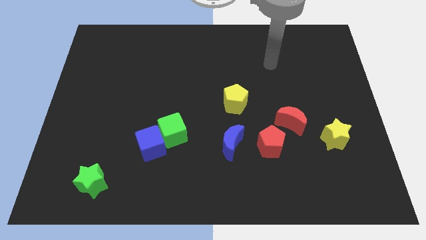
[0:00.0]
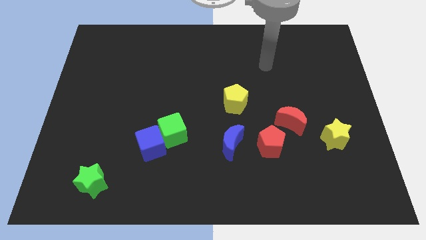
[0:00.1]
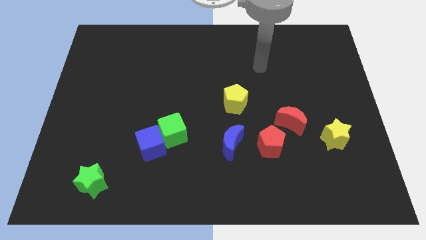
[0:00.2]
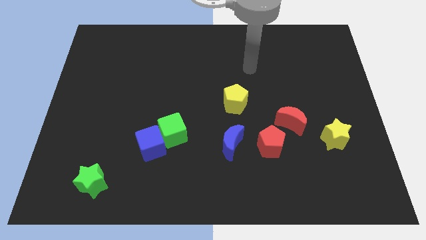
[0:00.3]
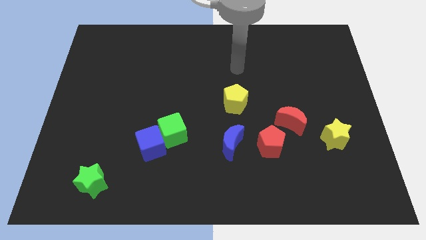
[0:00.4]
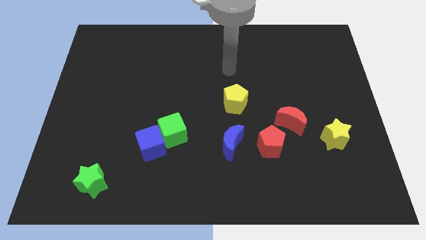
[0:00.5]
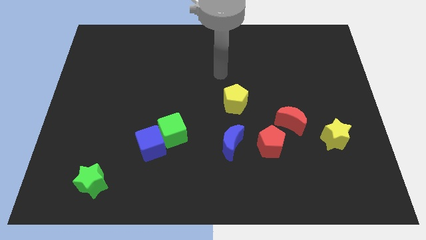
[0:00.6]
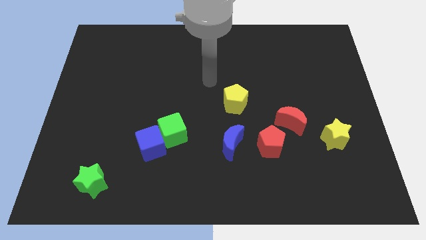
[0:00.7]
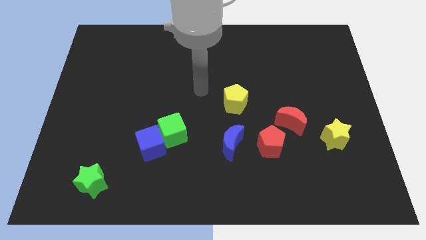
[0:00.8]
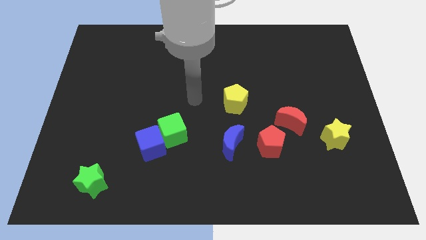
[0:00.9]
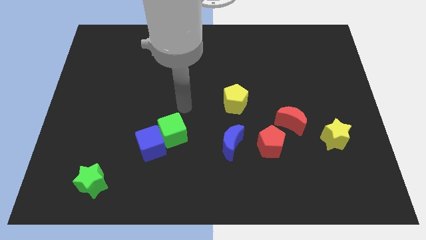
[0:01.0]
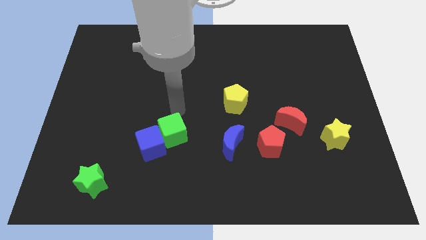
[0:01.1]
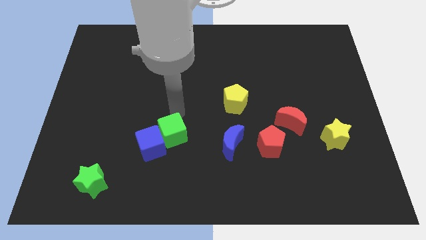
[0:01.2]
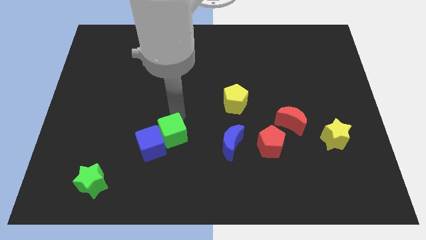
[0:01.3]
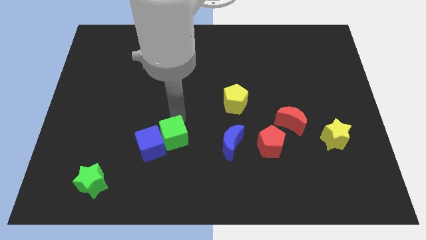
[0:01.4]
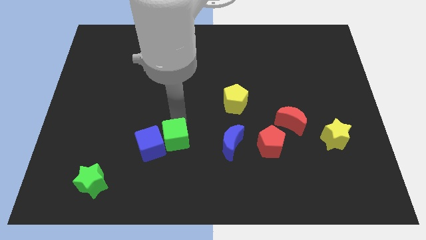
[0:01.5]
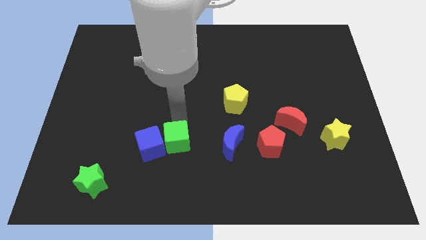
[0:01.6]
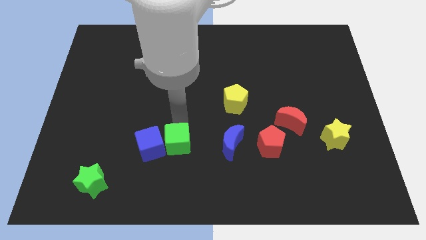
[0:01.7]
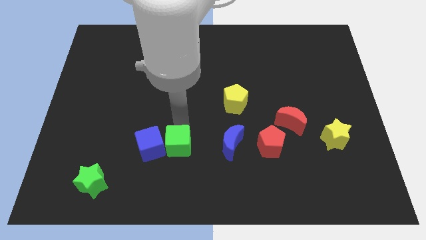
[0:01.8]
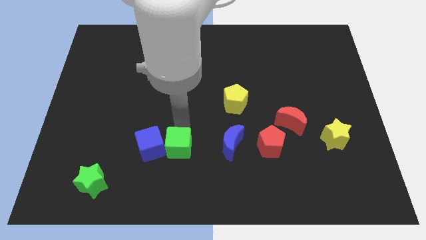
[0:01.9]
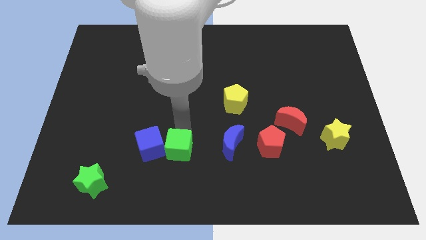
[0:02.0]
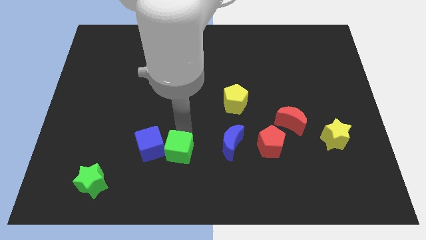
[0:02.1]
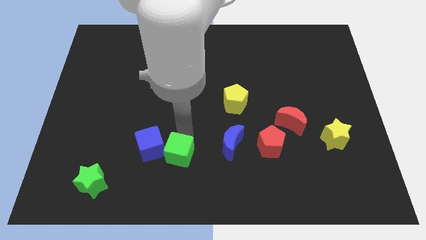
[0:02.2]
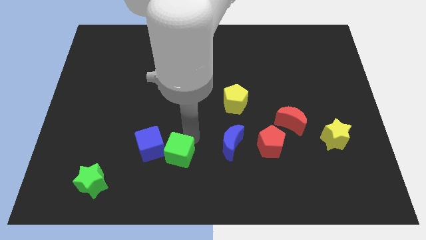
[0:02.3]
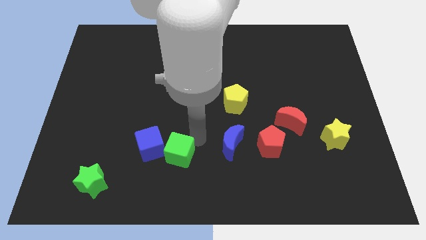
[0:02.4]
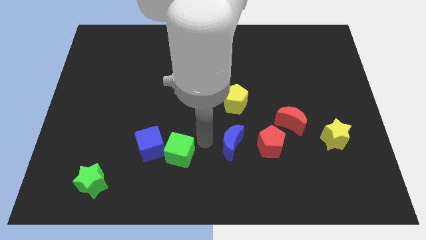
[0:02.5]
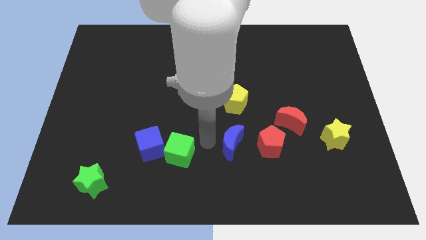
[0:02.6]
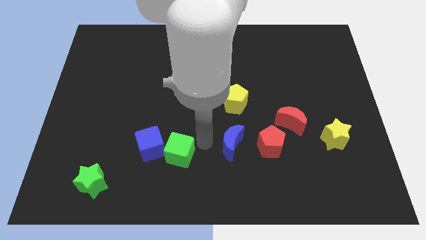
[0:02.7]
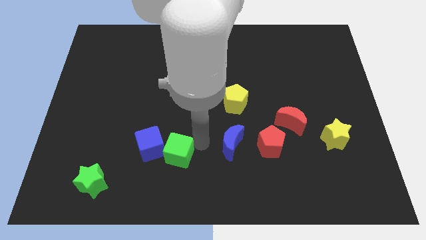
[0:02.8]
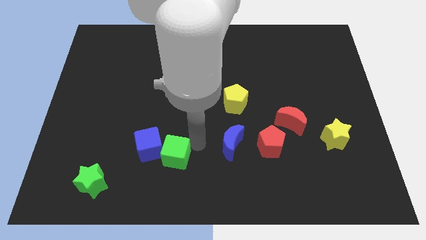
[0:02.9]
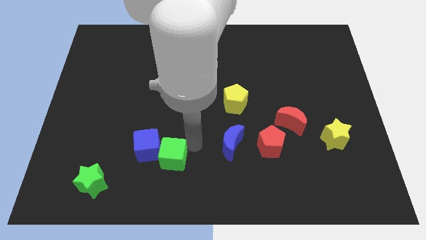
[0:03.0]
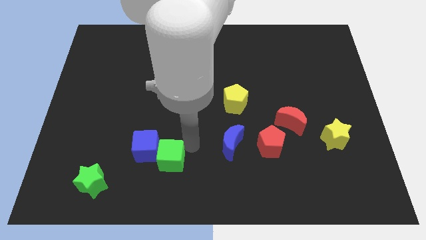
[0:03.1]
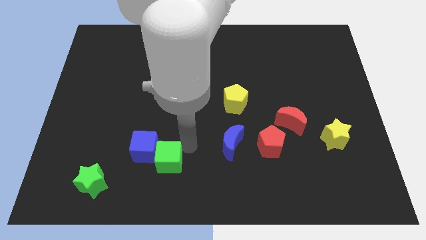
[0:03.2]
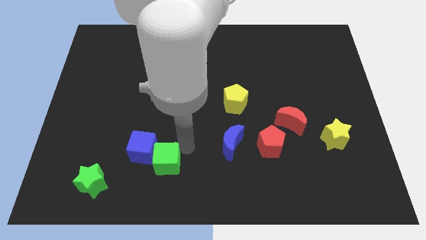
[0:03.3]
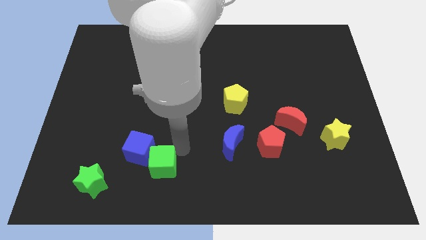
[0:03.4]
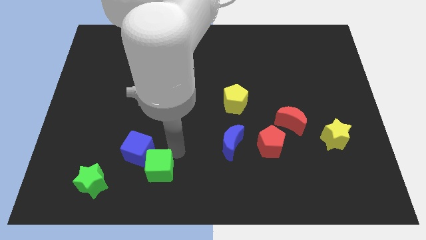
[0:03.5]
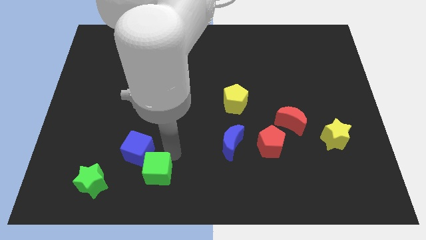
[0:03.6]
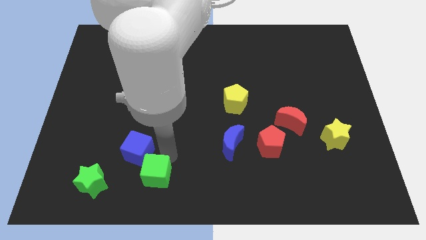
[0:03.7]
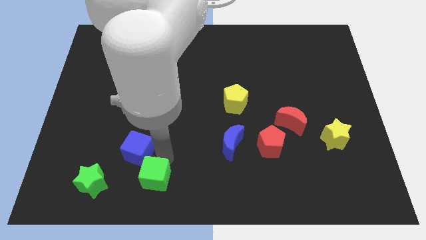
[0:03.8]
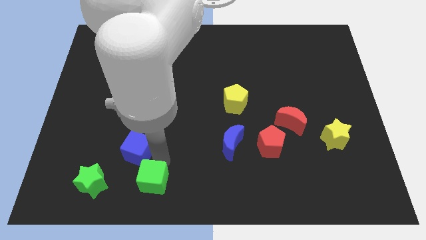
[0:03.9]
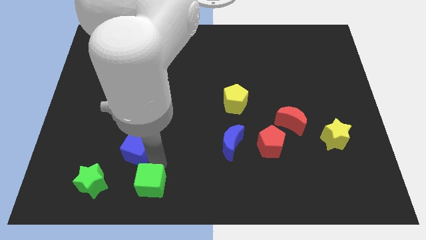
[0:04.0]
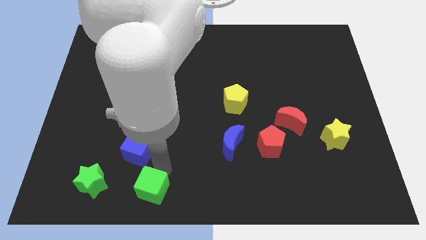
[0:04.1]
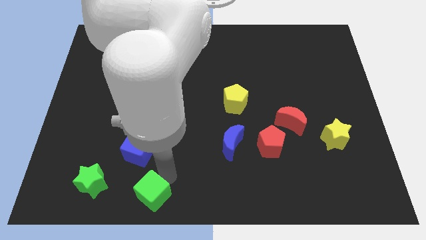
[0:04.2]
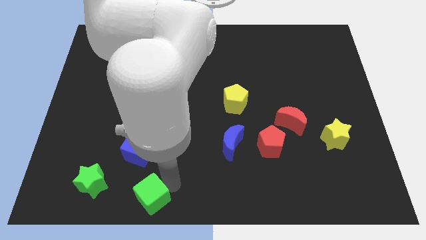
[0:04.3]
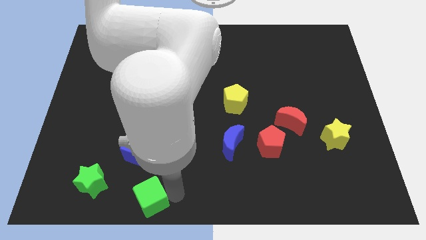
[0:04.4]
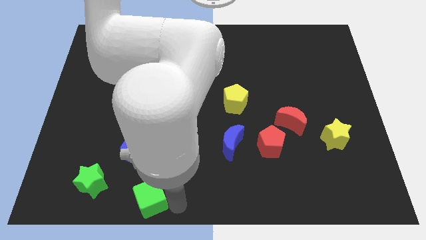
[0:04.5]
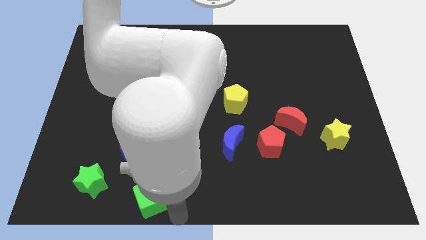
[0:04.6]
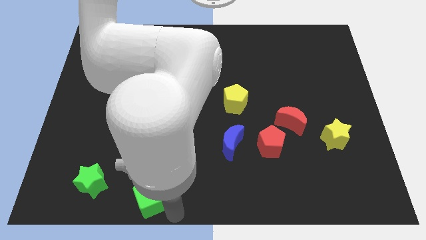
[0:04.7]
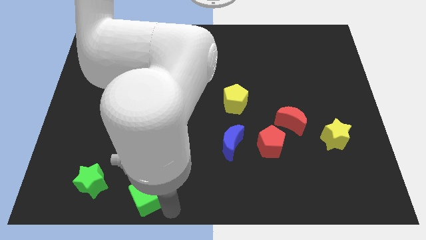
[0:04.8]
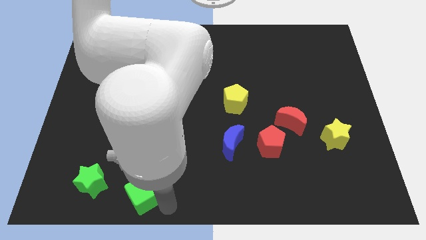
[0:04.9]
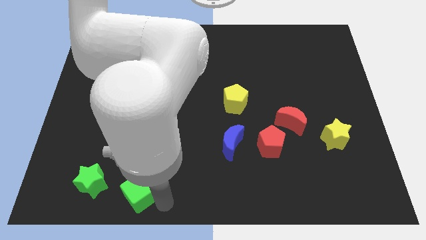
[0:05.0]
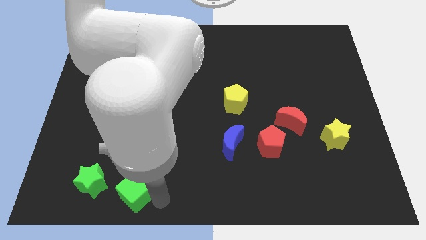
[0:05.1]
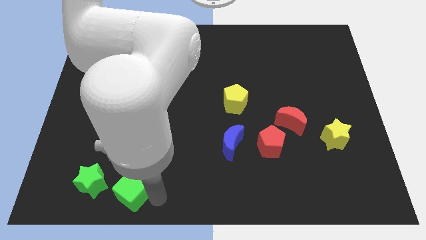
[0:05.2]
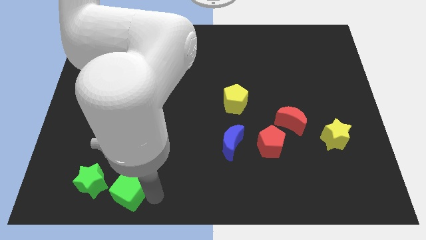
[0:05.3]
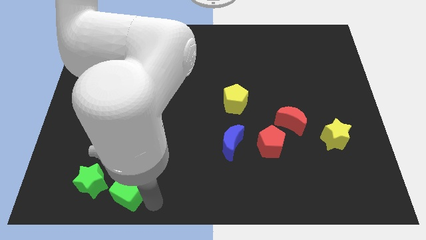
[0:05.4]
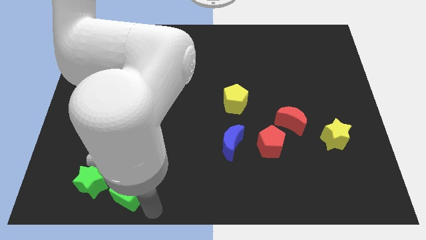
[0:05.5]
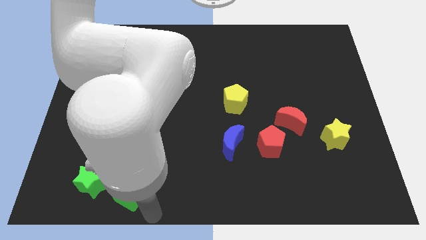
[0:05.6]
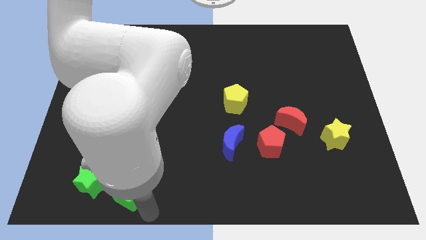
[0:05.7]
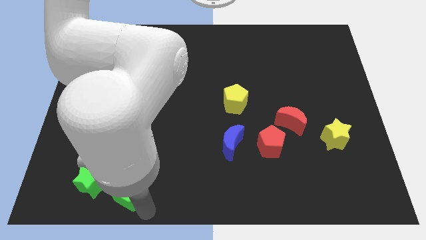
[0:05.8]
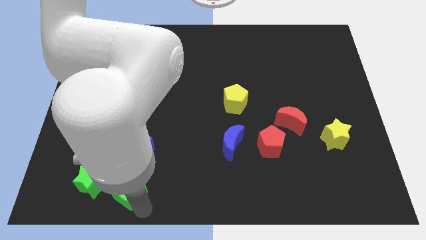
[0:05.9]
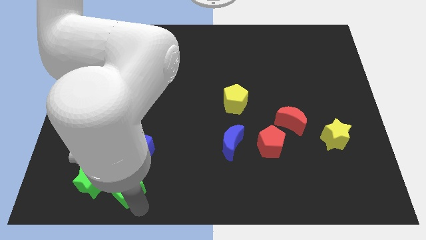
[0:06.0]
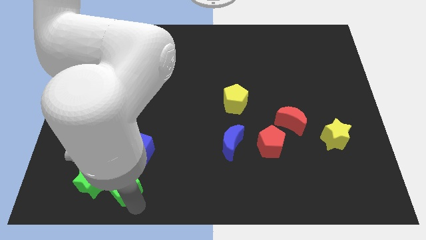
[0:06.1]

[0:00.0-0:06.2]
move the green cube diagonally down and to the left of the blue cube
